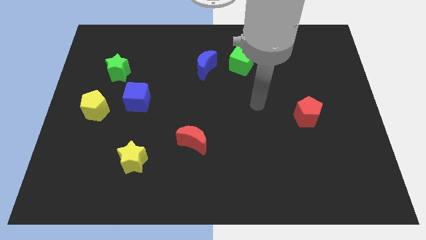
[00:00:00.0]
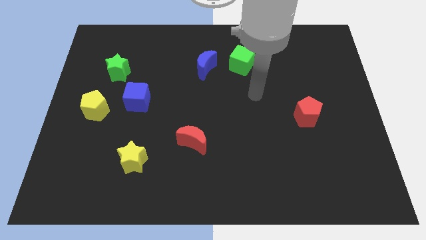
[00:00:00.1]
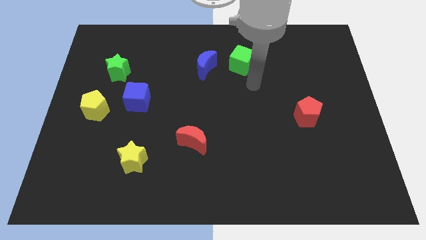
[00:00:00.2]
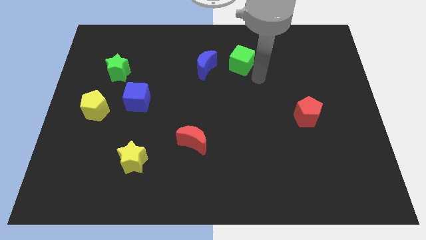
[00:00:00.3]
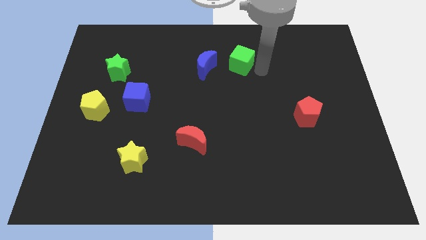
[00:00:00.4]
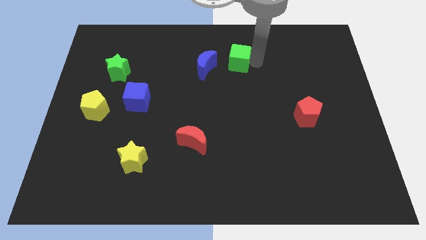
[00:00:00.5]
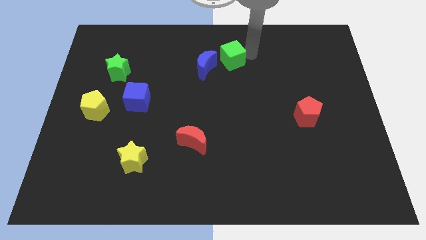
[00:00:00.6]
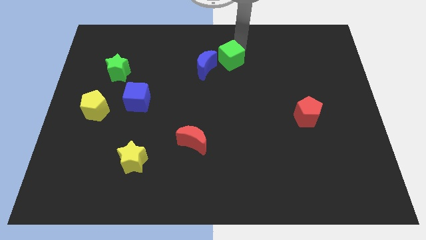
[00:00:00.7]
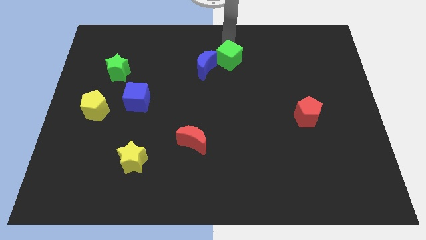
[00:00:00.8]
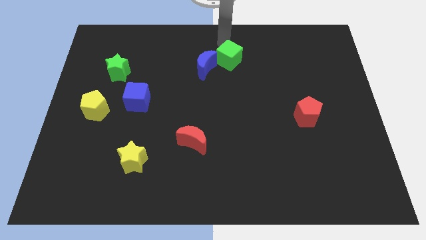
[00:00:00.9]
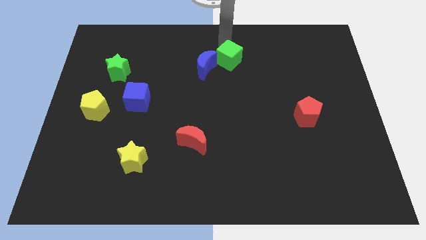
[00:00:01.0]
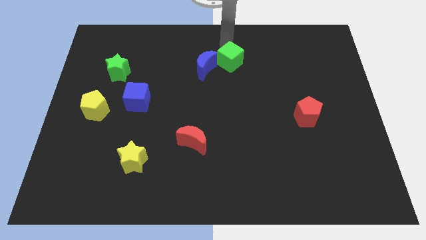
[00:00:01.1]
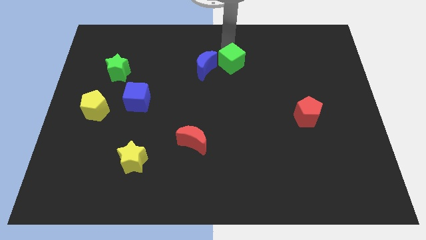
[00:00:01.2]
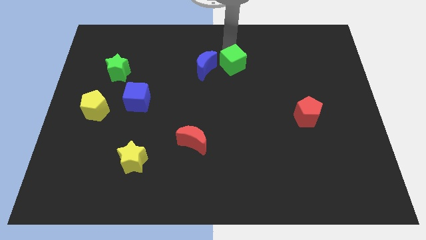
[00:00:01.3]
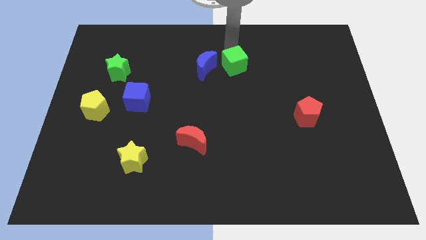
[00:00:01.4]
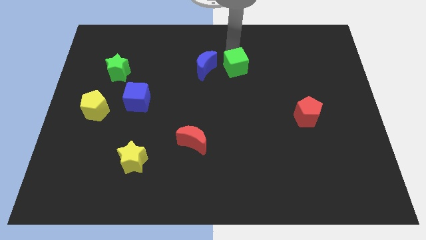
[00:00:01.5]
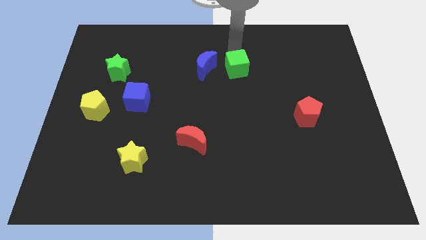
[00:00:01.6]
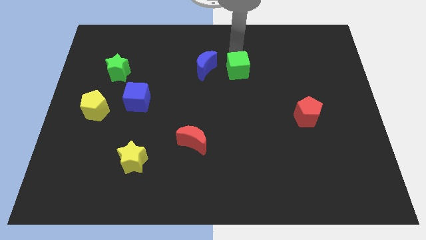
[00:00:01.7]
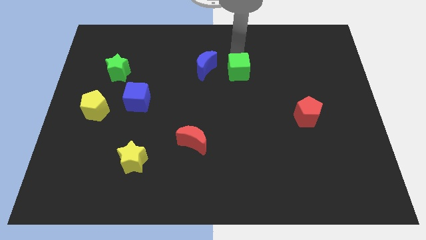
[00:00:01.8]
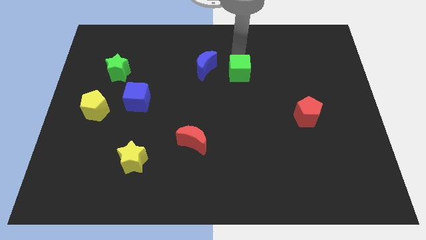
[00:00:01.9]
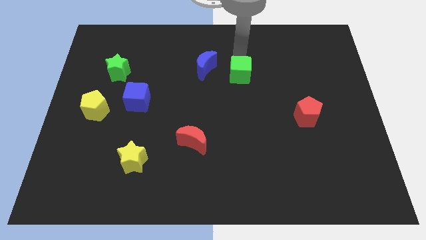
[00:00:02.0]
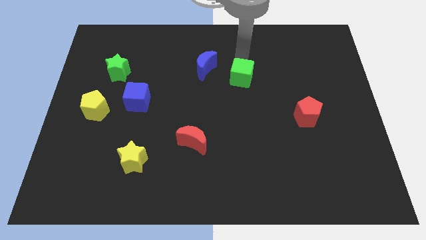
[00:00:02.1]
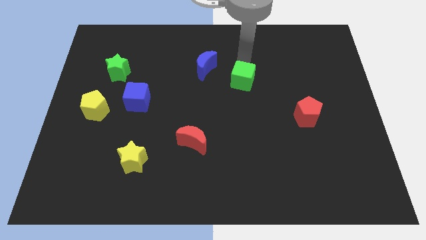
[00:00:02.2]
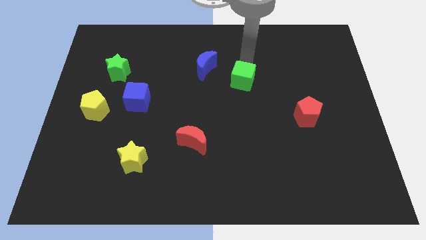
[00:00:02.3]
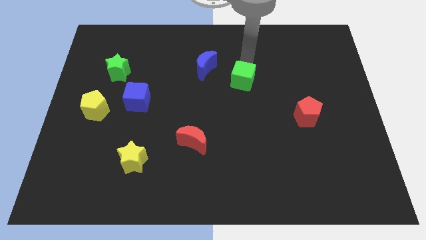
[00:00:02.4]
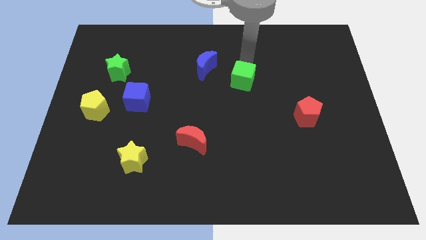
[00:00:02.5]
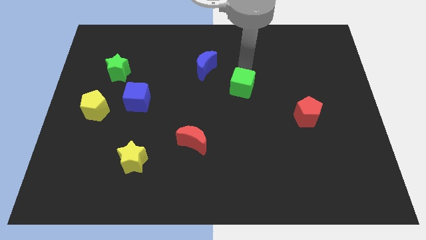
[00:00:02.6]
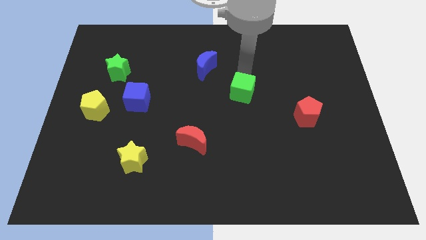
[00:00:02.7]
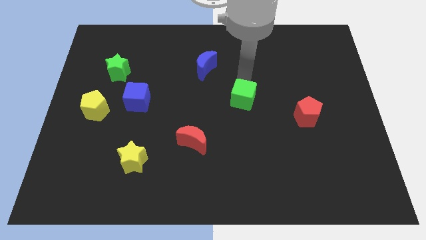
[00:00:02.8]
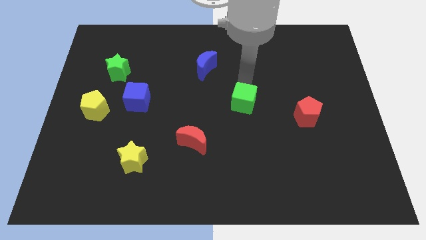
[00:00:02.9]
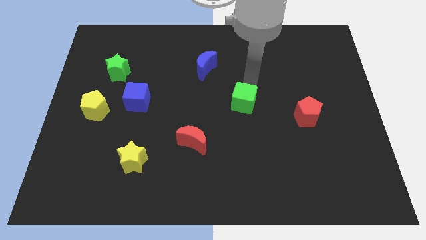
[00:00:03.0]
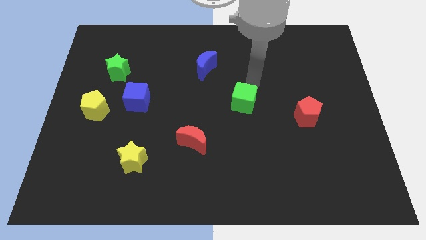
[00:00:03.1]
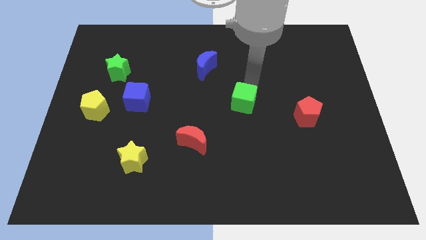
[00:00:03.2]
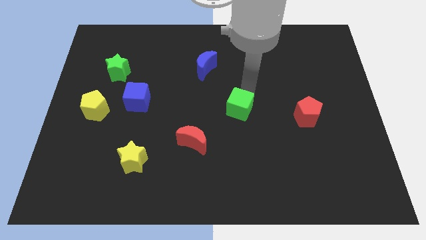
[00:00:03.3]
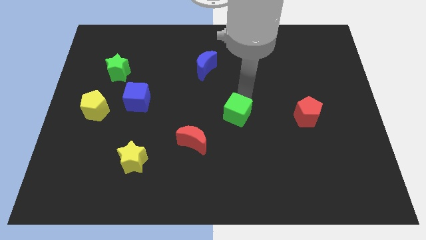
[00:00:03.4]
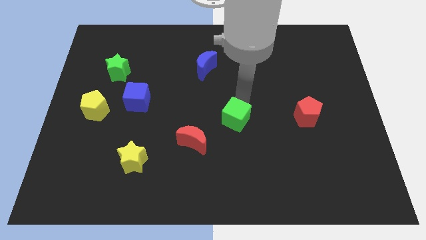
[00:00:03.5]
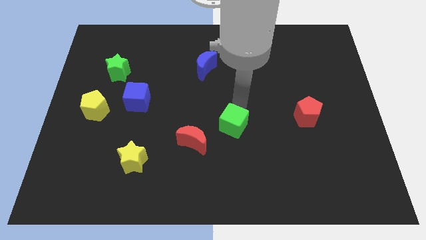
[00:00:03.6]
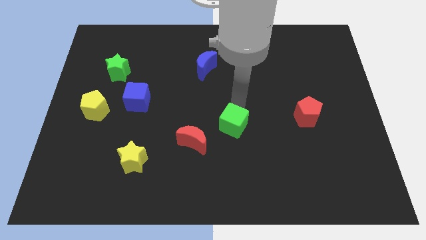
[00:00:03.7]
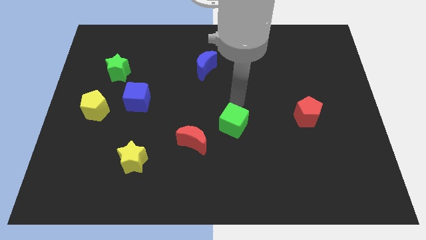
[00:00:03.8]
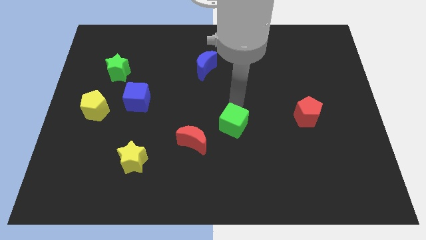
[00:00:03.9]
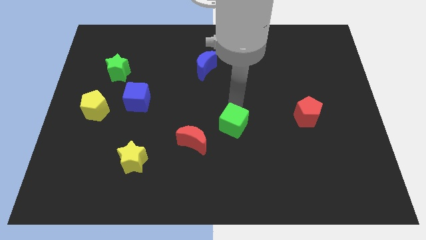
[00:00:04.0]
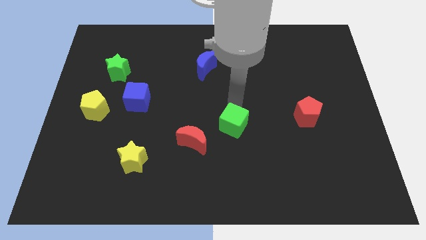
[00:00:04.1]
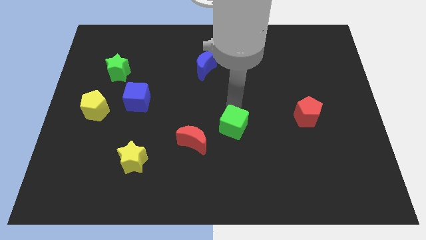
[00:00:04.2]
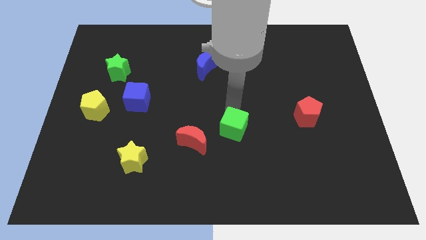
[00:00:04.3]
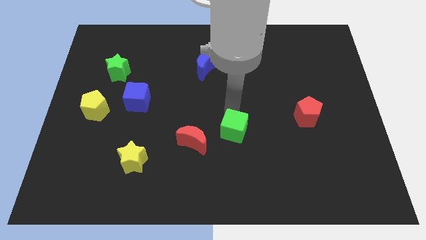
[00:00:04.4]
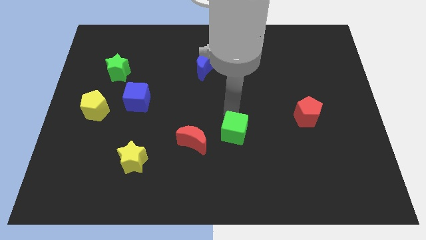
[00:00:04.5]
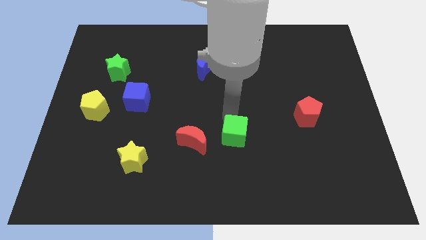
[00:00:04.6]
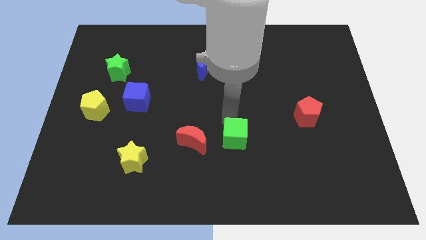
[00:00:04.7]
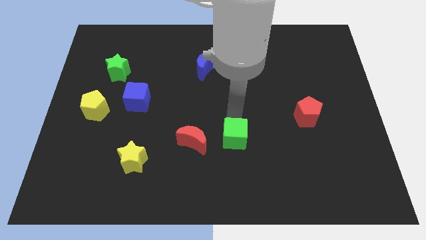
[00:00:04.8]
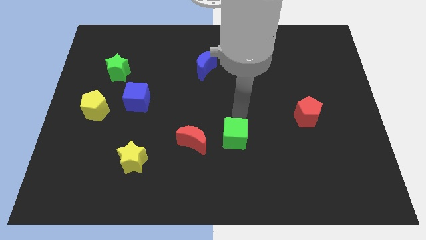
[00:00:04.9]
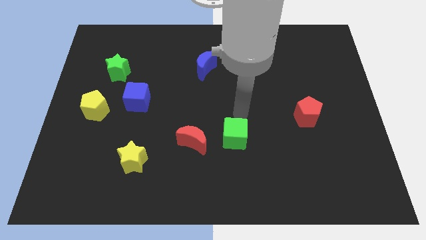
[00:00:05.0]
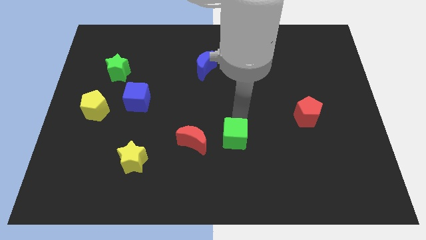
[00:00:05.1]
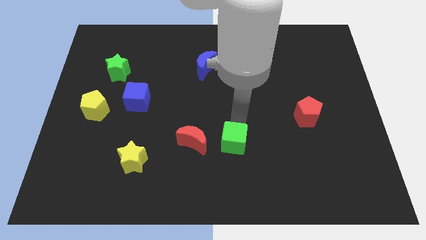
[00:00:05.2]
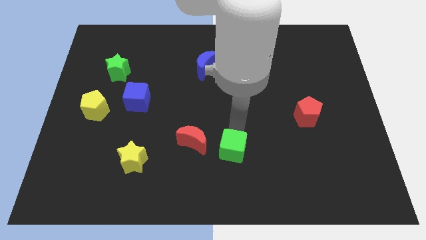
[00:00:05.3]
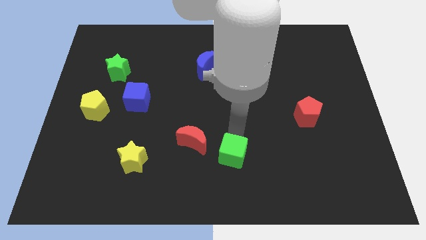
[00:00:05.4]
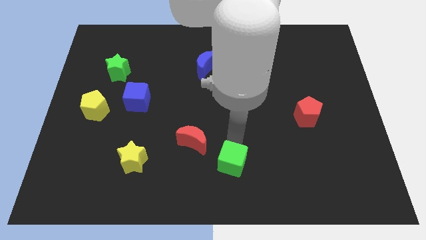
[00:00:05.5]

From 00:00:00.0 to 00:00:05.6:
put the green cube to the bottom side

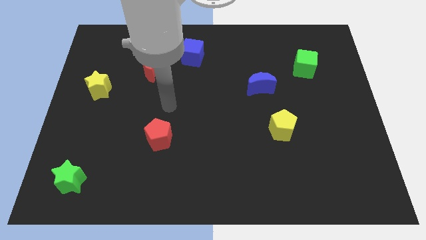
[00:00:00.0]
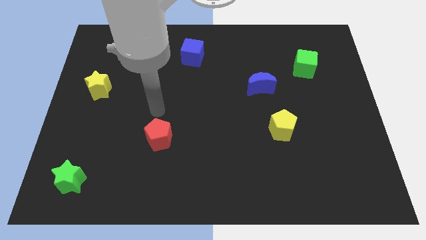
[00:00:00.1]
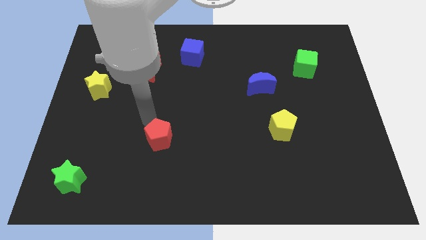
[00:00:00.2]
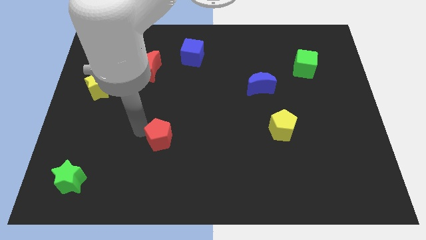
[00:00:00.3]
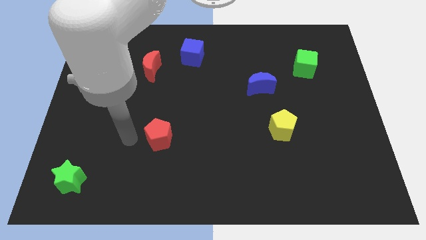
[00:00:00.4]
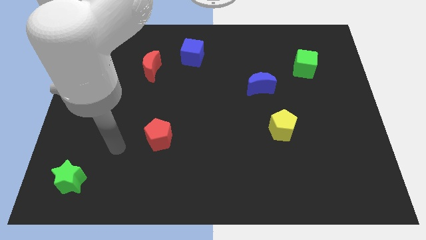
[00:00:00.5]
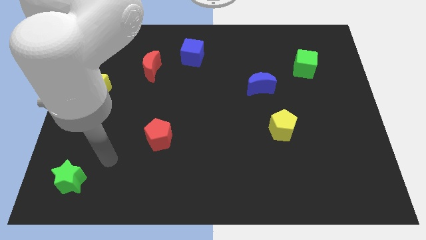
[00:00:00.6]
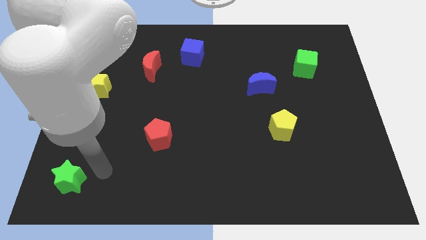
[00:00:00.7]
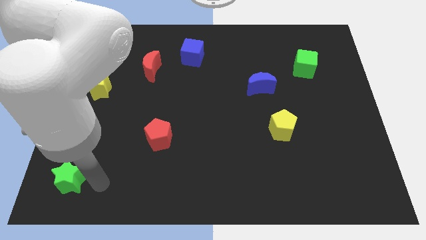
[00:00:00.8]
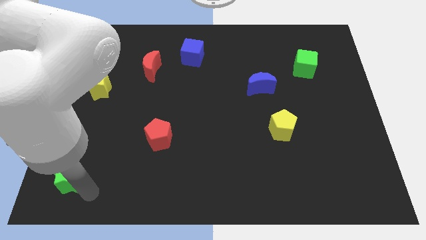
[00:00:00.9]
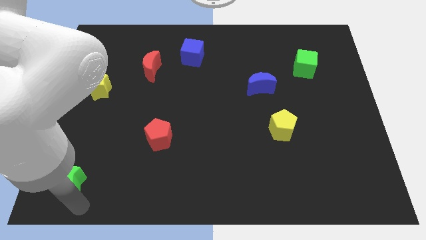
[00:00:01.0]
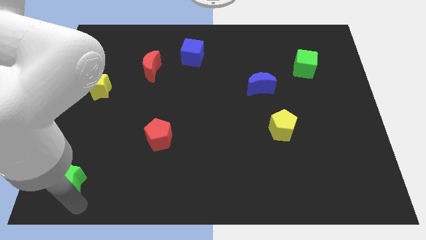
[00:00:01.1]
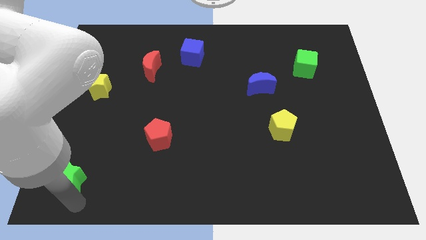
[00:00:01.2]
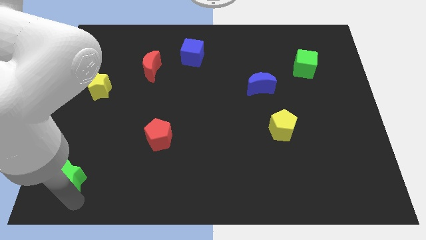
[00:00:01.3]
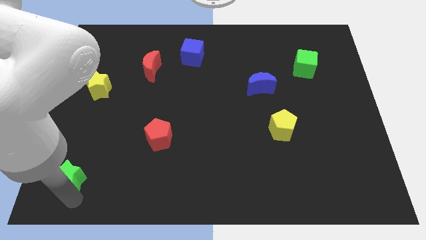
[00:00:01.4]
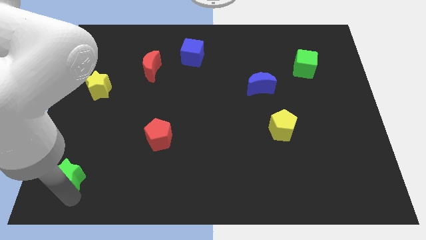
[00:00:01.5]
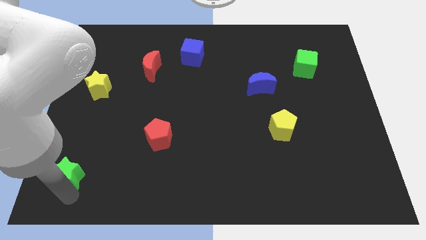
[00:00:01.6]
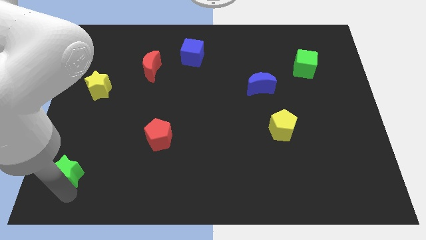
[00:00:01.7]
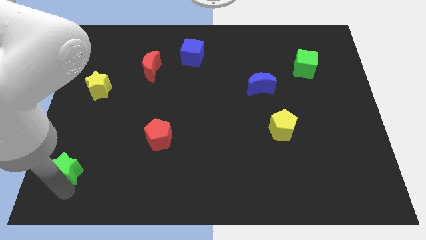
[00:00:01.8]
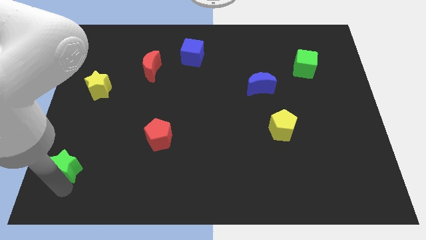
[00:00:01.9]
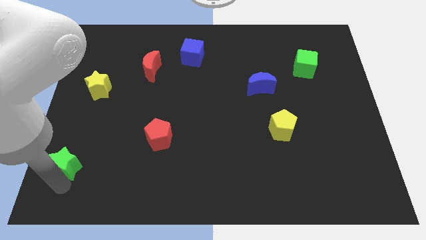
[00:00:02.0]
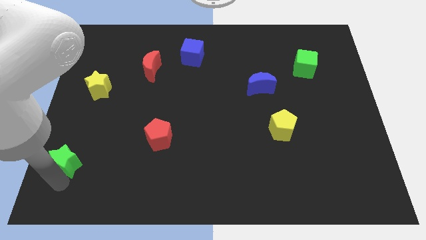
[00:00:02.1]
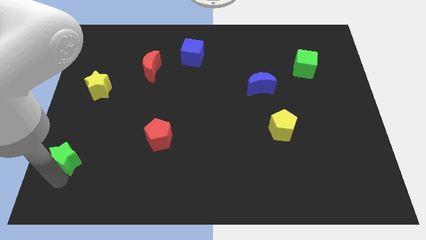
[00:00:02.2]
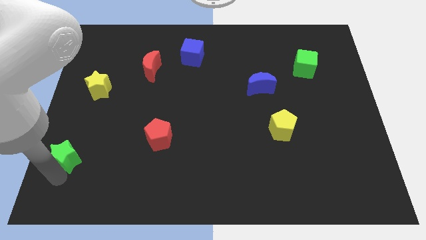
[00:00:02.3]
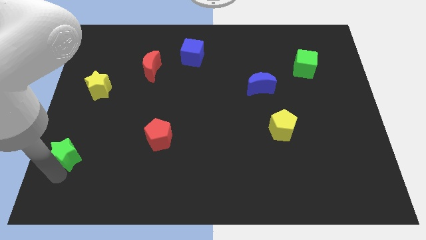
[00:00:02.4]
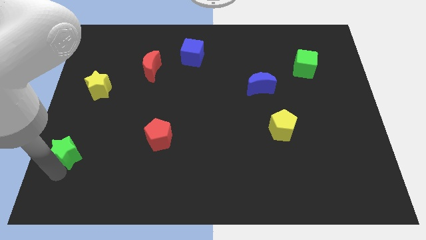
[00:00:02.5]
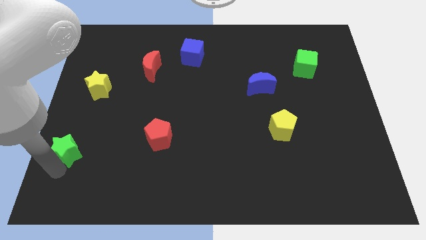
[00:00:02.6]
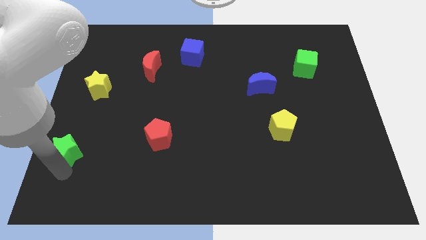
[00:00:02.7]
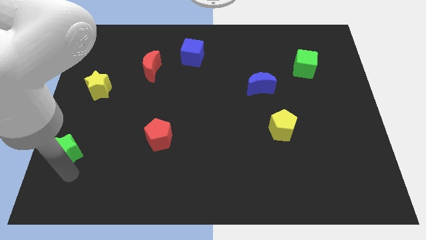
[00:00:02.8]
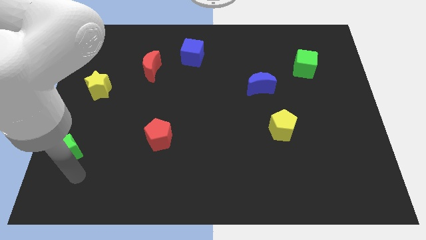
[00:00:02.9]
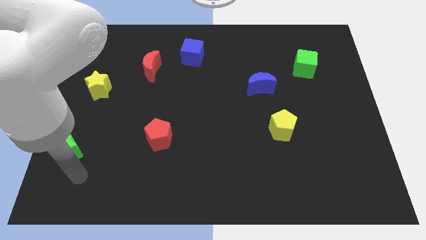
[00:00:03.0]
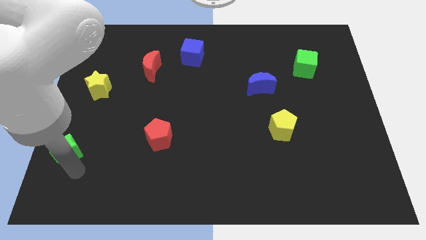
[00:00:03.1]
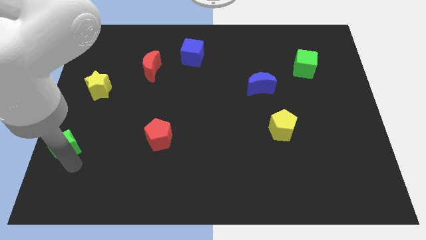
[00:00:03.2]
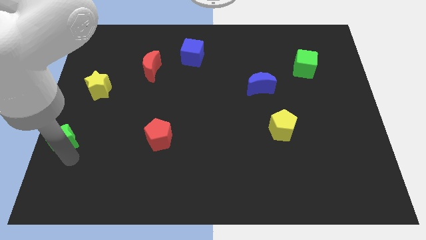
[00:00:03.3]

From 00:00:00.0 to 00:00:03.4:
slide the green star to the left side
